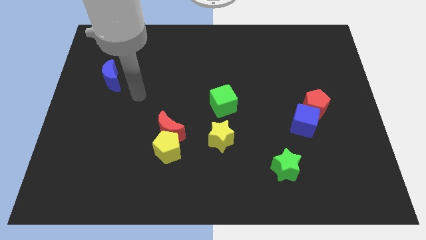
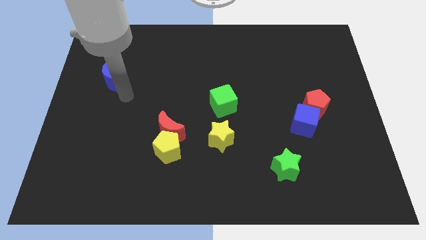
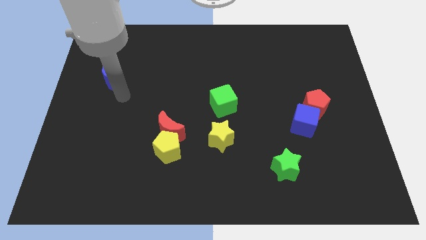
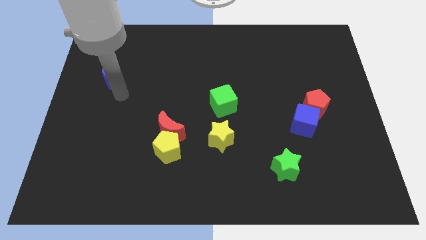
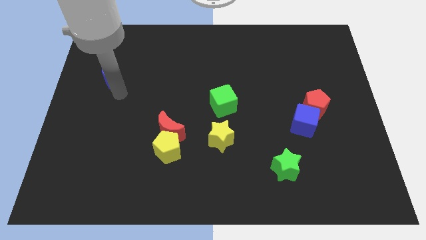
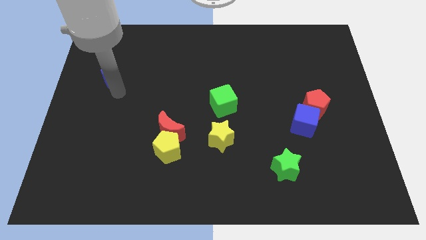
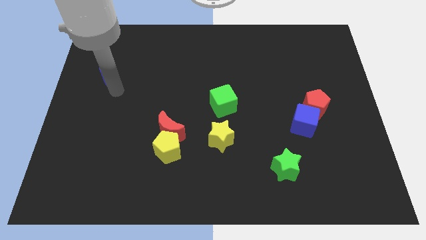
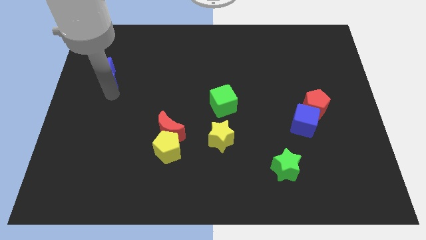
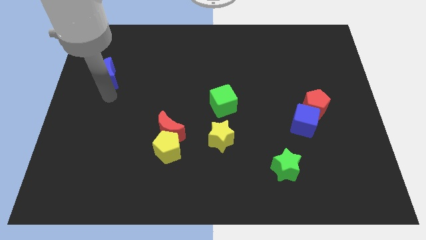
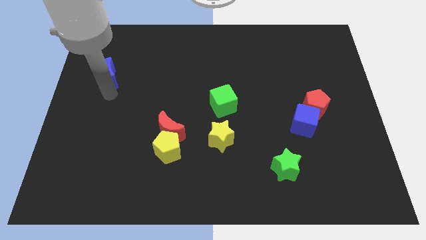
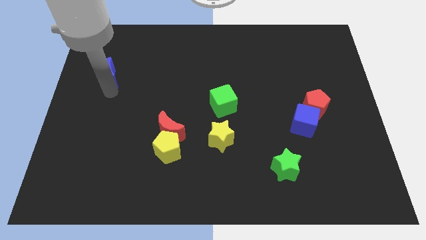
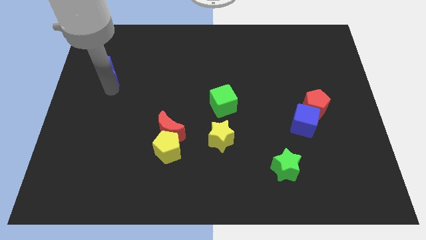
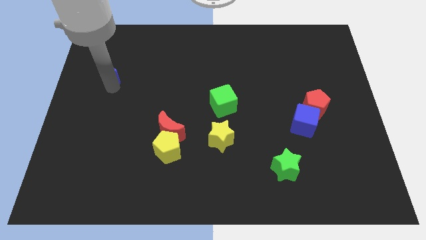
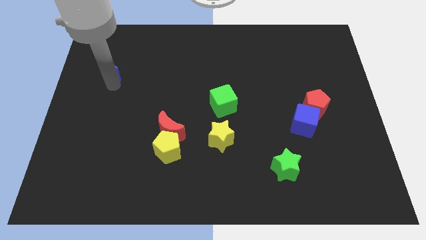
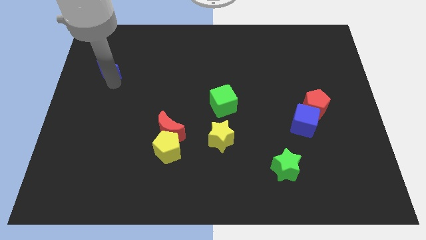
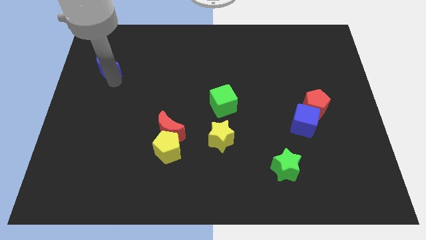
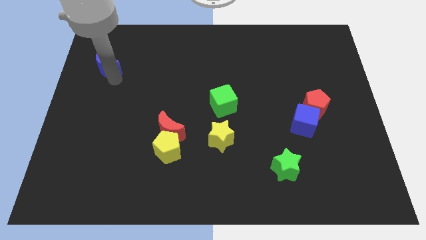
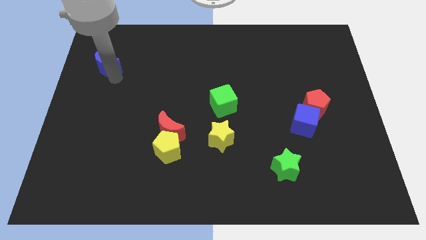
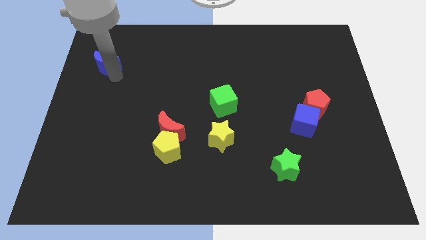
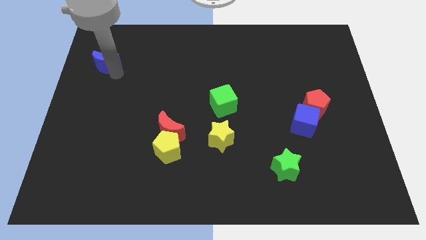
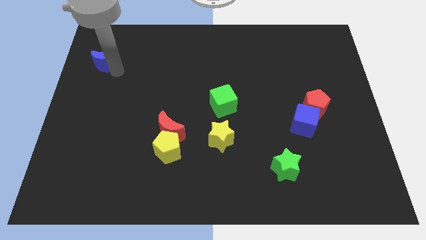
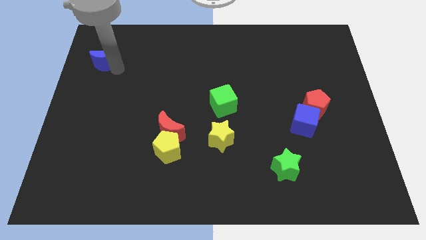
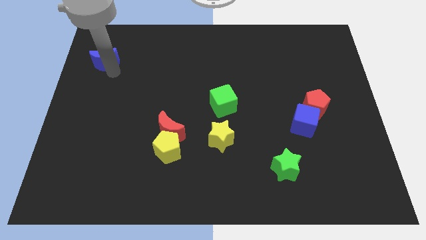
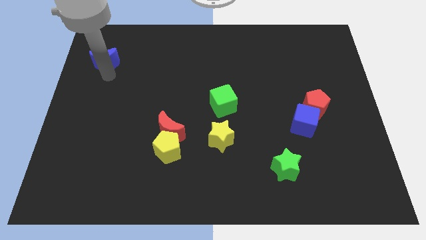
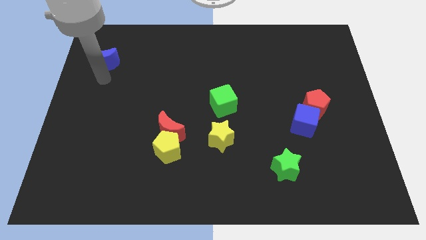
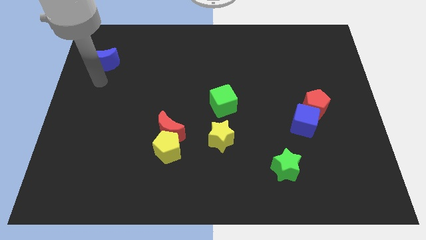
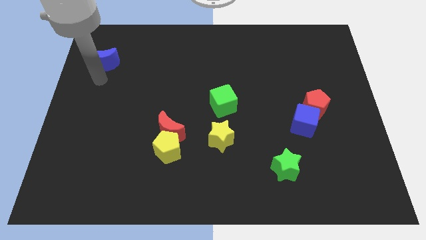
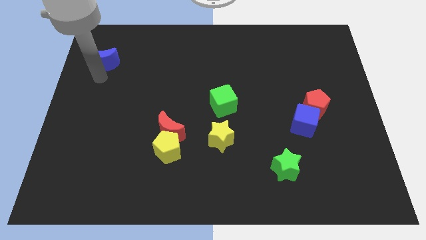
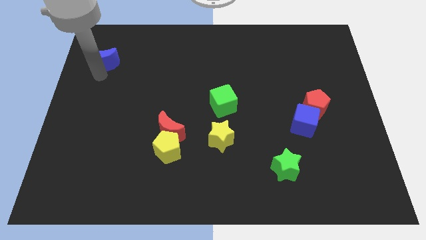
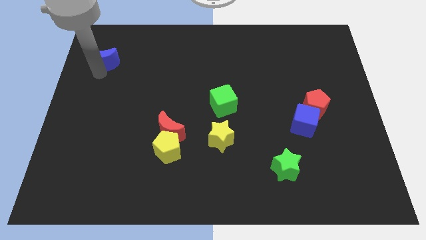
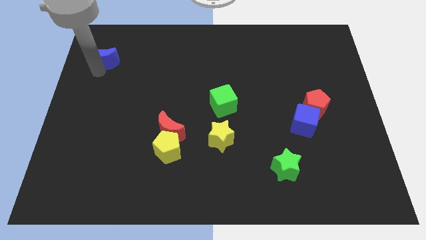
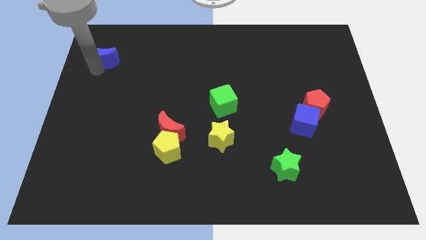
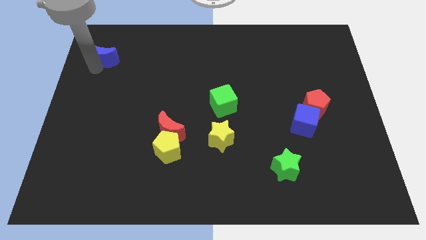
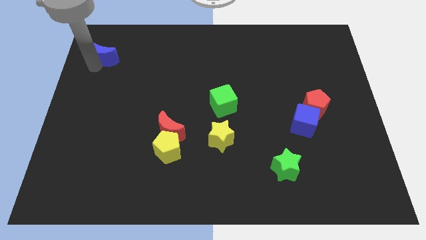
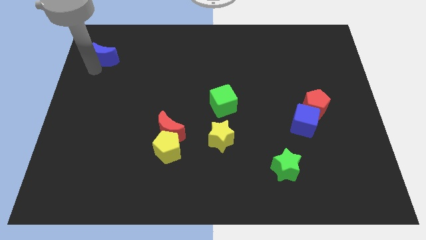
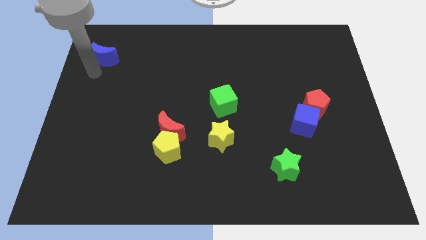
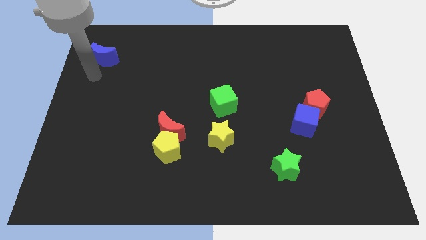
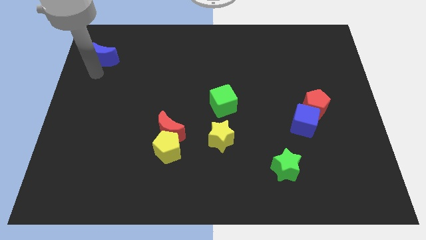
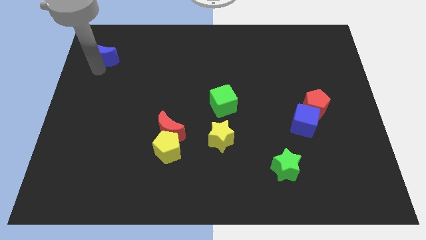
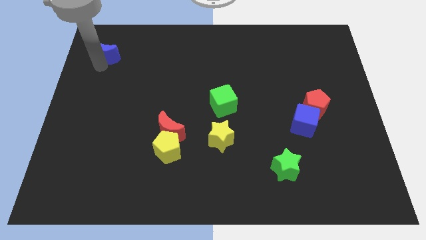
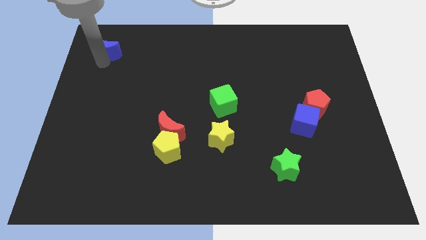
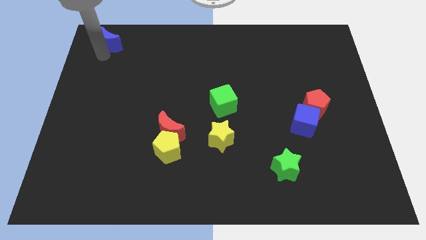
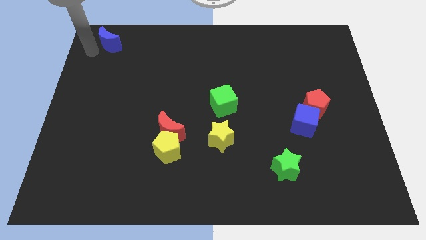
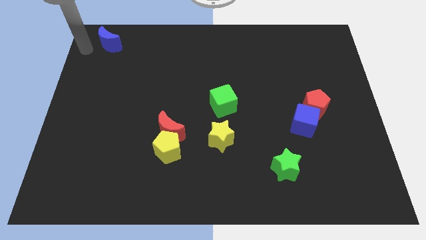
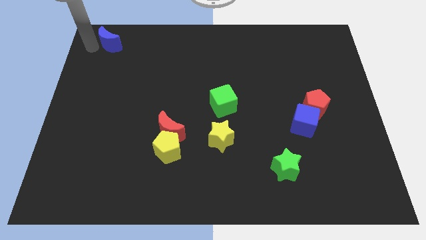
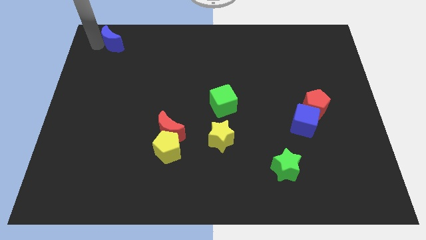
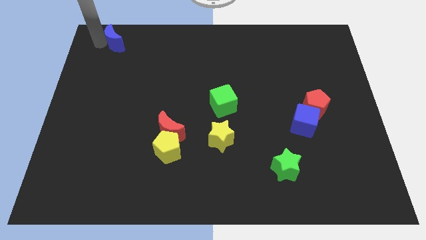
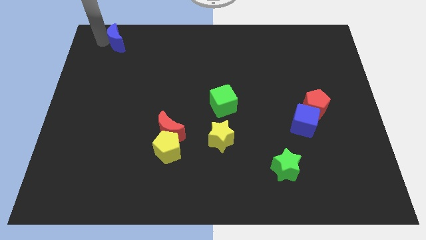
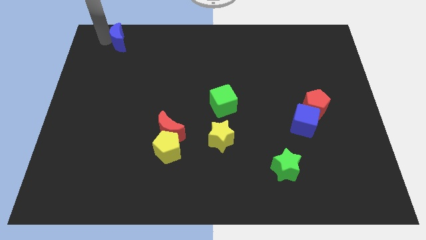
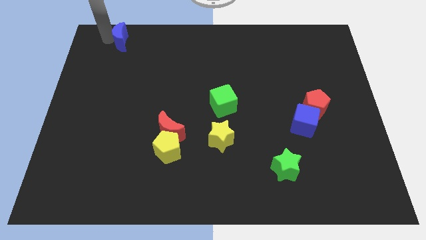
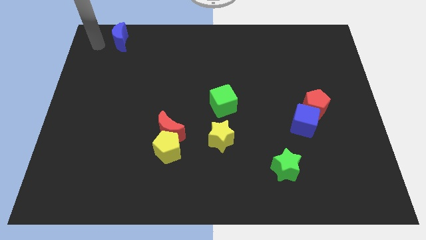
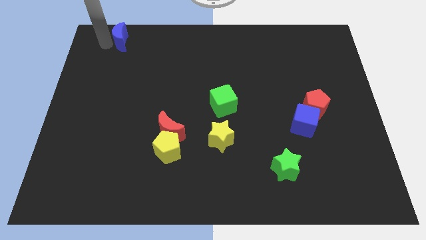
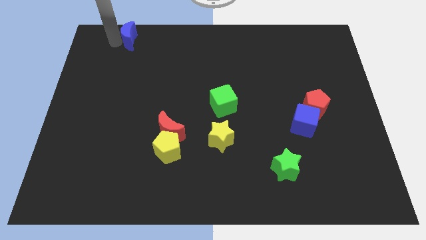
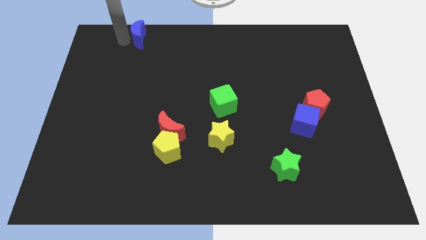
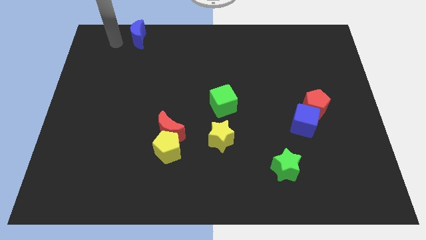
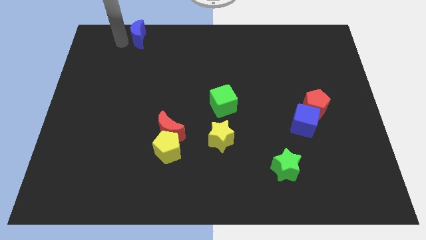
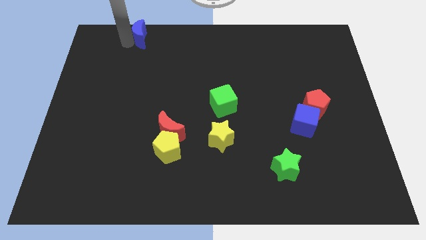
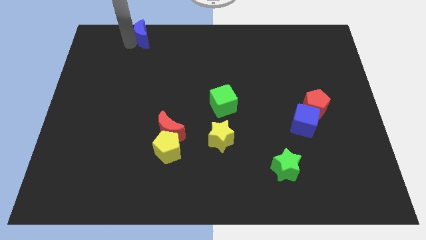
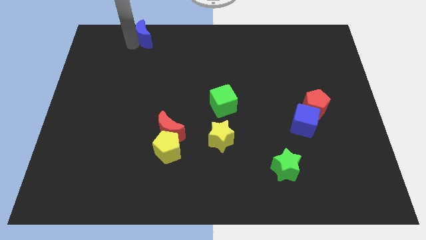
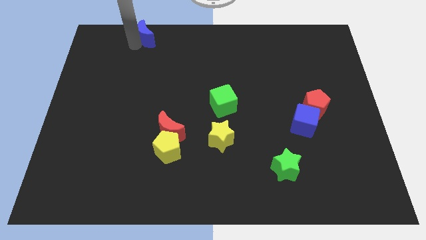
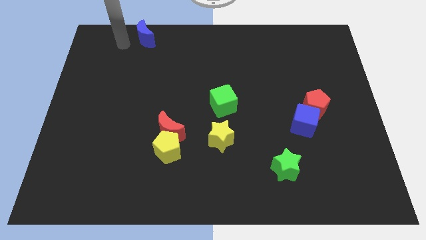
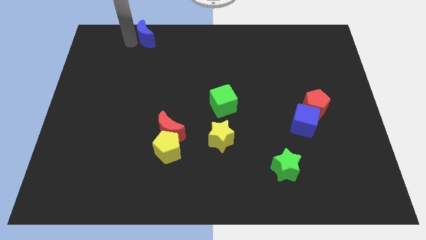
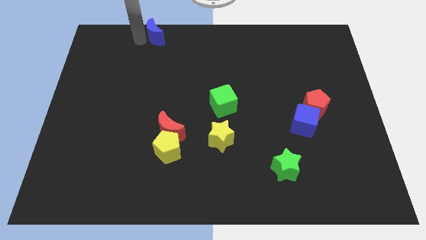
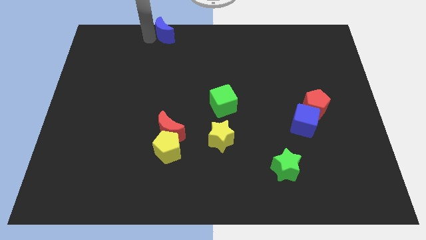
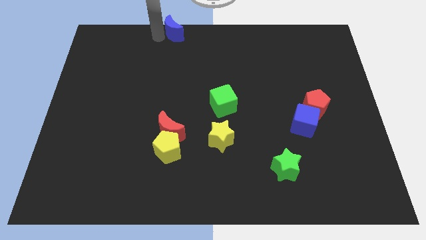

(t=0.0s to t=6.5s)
put the blue moon to the top
